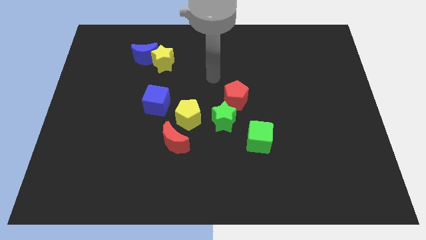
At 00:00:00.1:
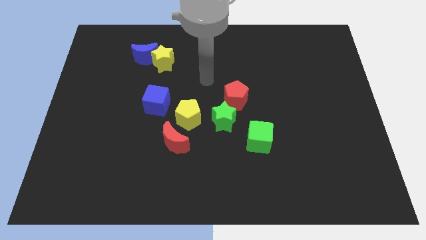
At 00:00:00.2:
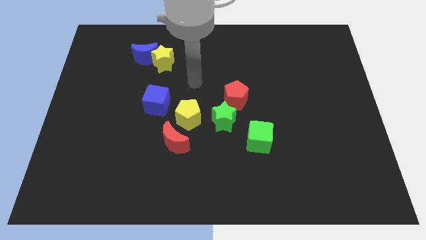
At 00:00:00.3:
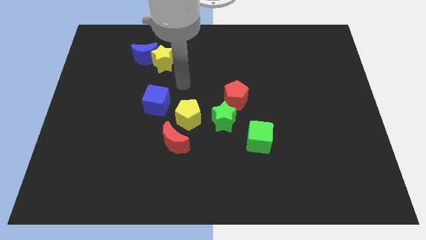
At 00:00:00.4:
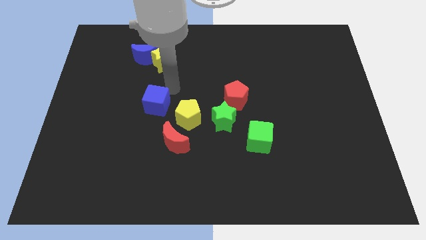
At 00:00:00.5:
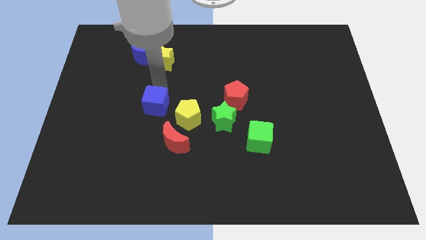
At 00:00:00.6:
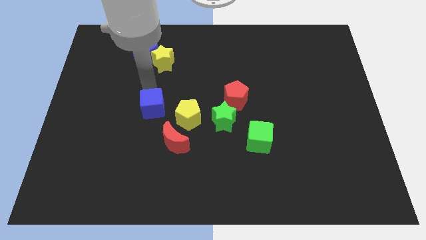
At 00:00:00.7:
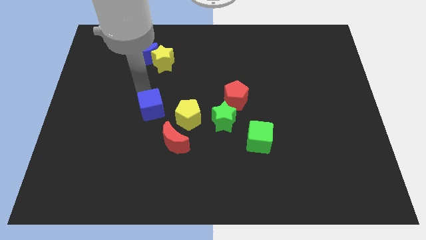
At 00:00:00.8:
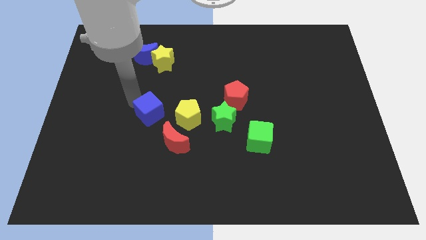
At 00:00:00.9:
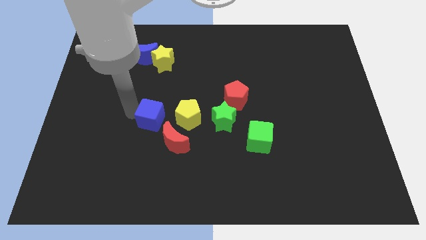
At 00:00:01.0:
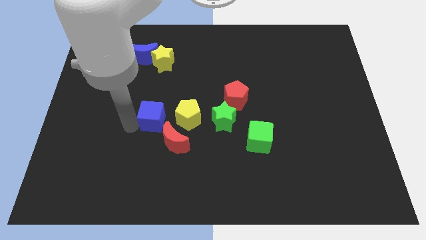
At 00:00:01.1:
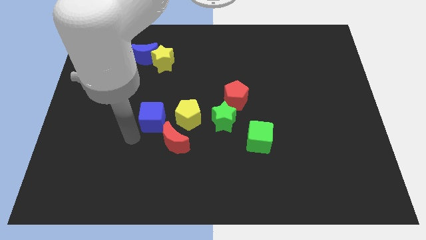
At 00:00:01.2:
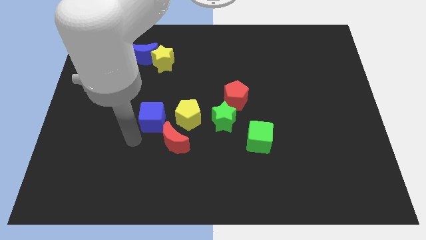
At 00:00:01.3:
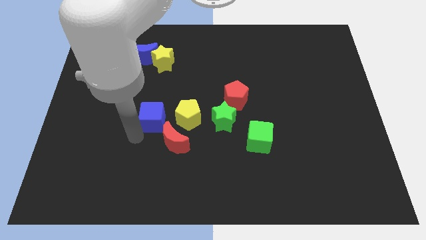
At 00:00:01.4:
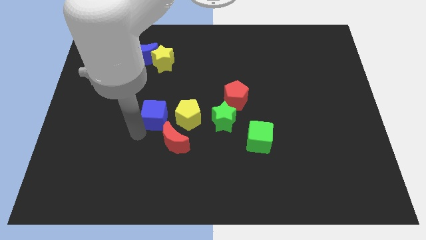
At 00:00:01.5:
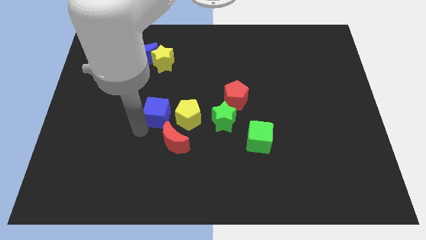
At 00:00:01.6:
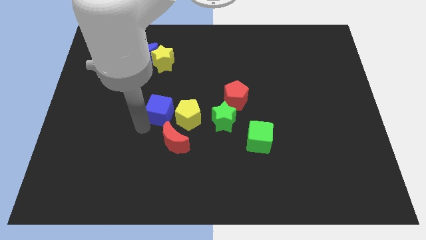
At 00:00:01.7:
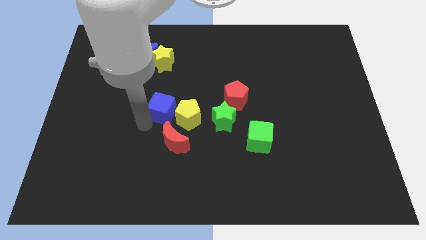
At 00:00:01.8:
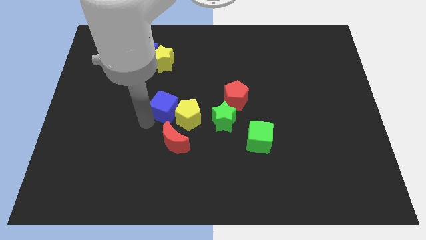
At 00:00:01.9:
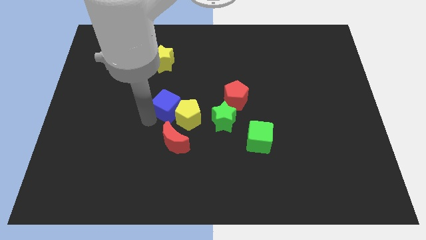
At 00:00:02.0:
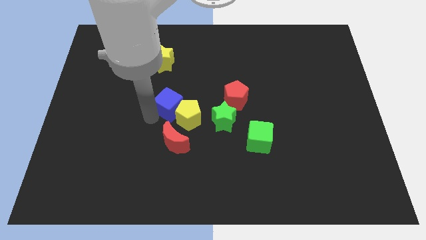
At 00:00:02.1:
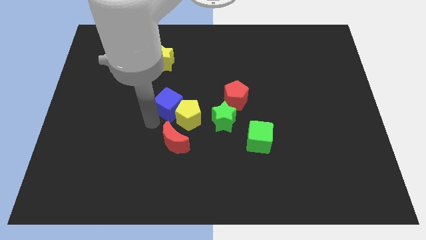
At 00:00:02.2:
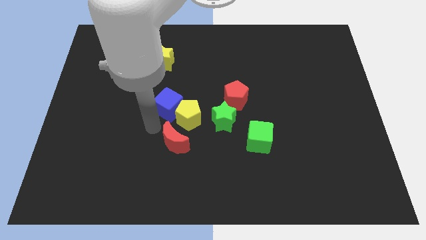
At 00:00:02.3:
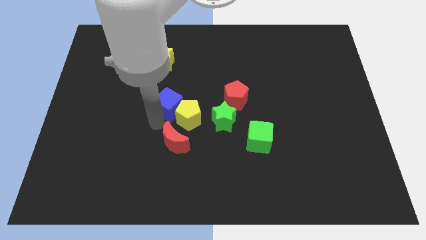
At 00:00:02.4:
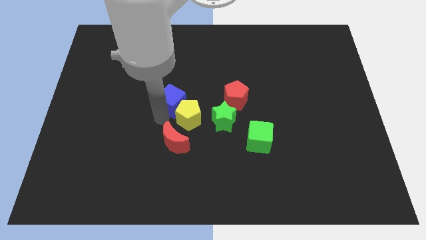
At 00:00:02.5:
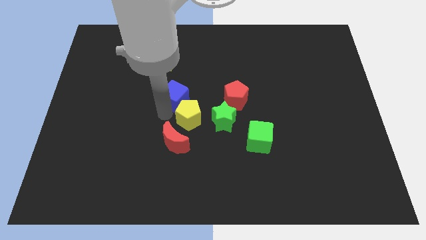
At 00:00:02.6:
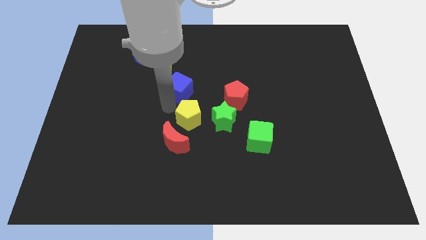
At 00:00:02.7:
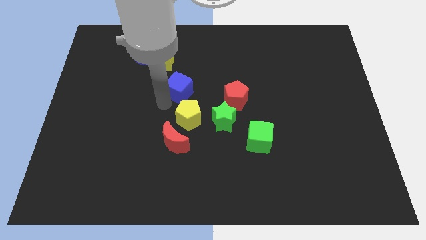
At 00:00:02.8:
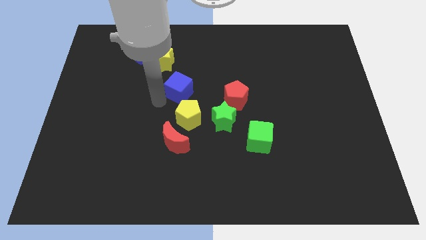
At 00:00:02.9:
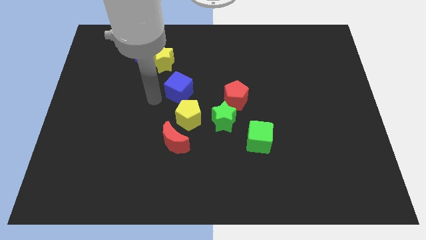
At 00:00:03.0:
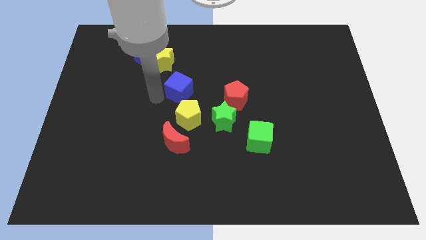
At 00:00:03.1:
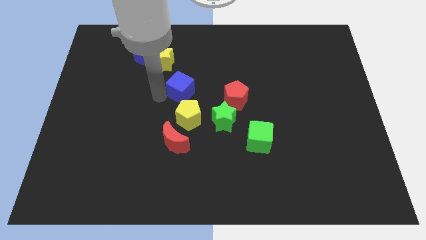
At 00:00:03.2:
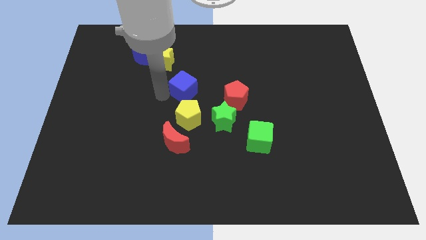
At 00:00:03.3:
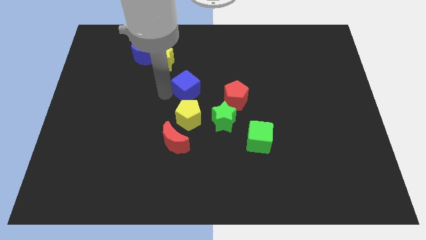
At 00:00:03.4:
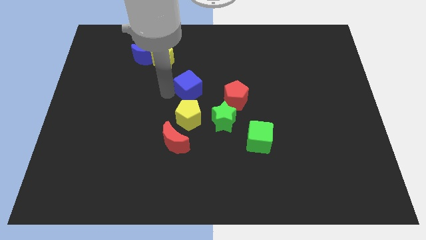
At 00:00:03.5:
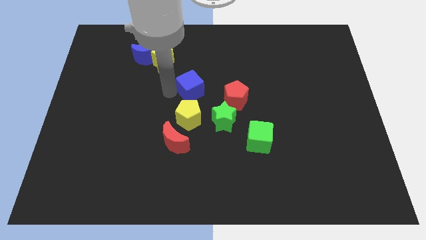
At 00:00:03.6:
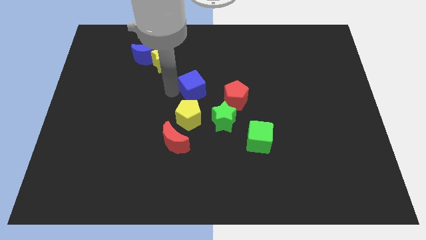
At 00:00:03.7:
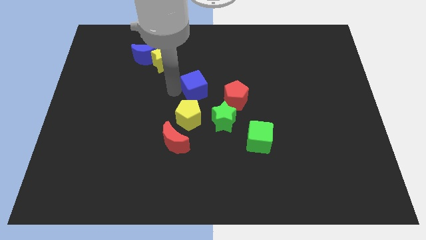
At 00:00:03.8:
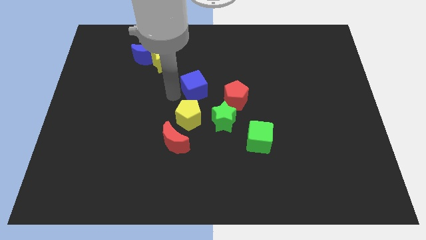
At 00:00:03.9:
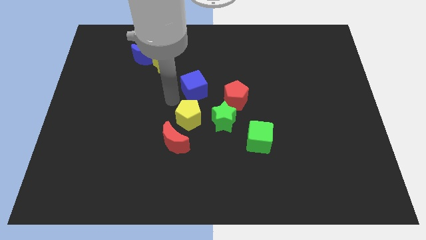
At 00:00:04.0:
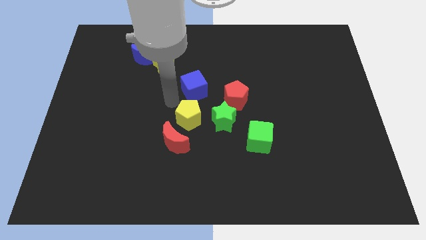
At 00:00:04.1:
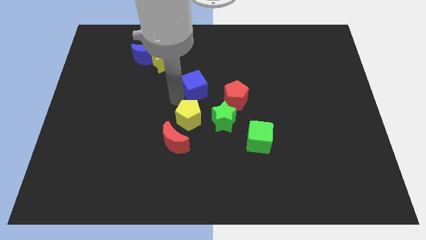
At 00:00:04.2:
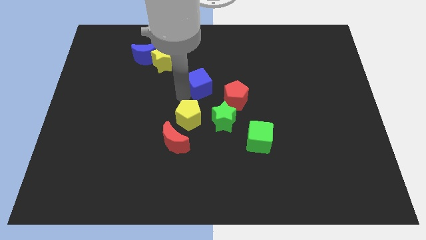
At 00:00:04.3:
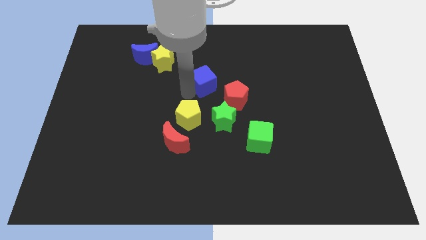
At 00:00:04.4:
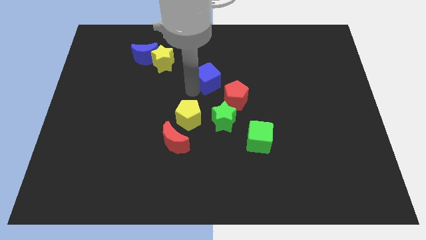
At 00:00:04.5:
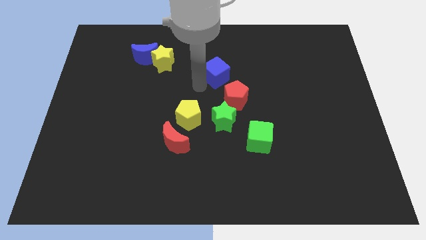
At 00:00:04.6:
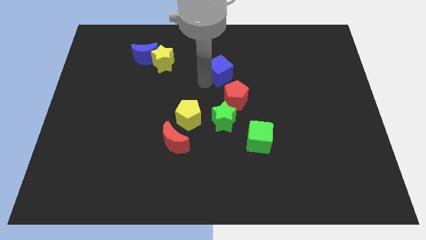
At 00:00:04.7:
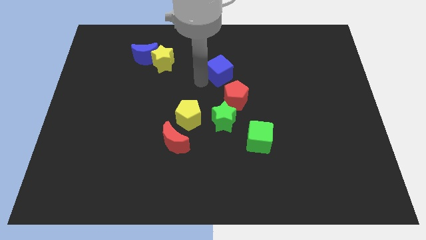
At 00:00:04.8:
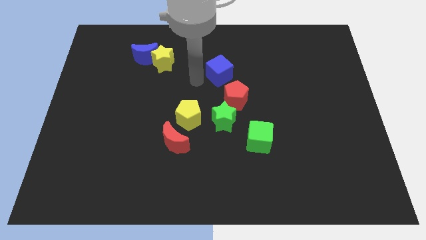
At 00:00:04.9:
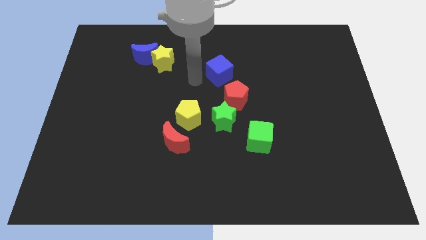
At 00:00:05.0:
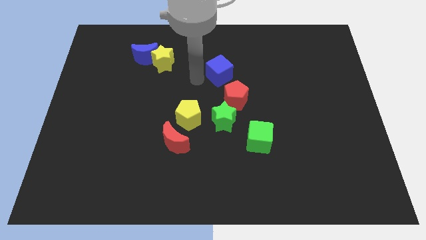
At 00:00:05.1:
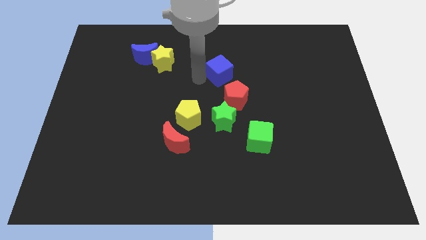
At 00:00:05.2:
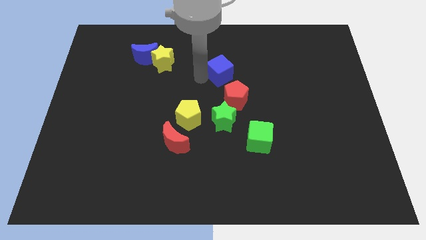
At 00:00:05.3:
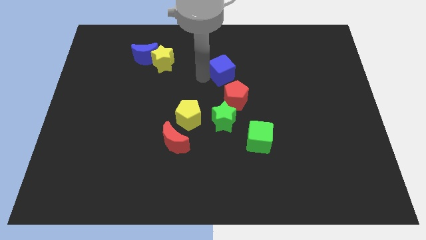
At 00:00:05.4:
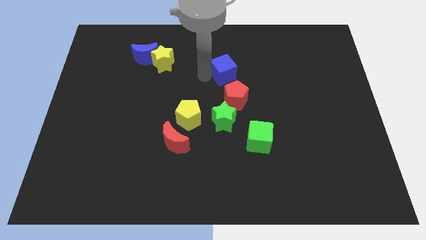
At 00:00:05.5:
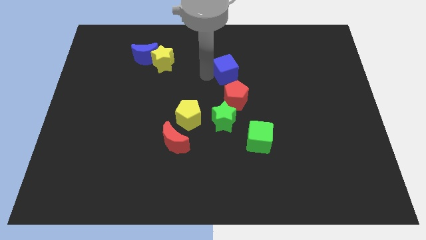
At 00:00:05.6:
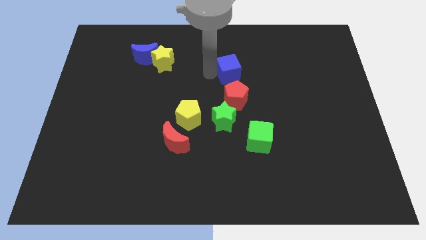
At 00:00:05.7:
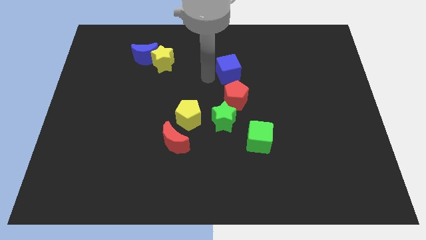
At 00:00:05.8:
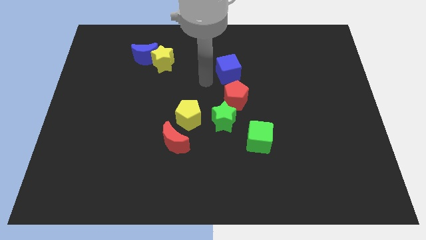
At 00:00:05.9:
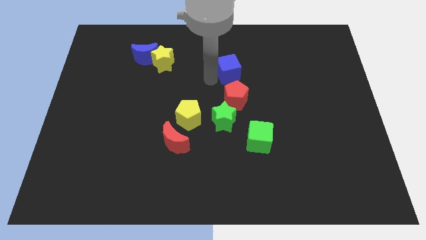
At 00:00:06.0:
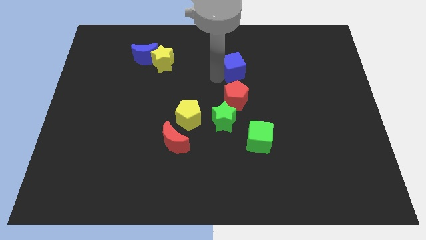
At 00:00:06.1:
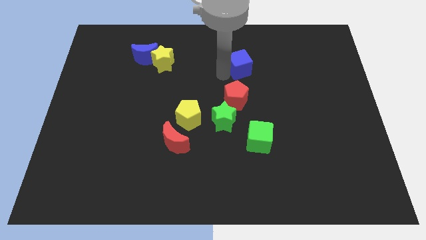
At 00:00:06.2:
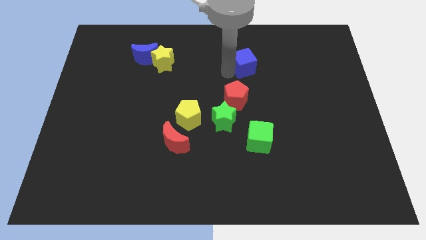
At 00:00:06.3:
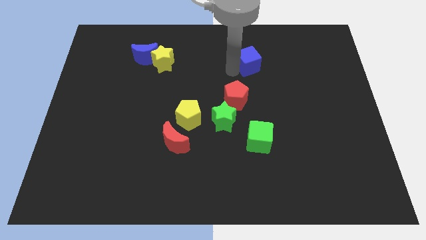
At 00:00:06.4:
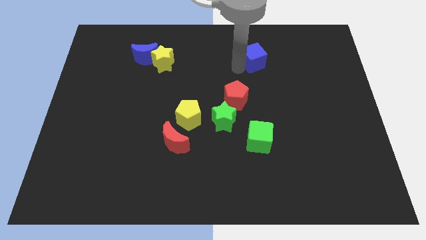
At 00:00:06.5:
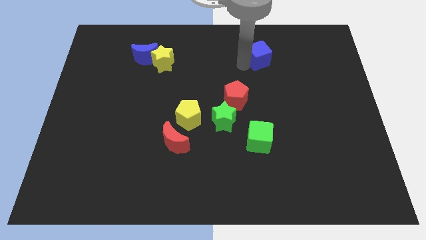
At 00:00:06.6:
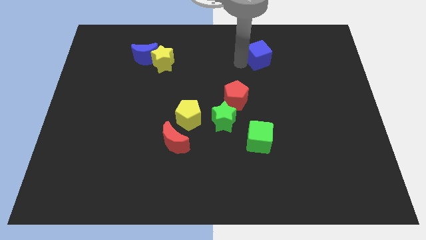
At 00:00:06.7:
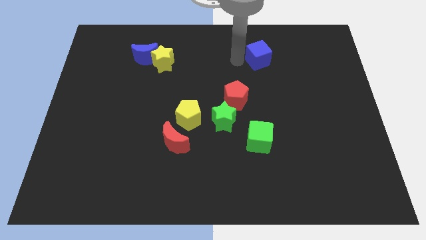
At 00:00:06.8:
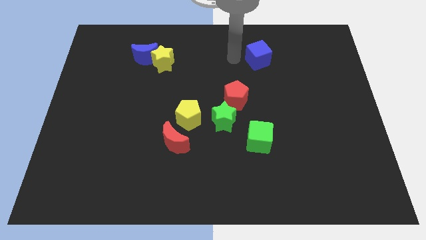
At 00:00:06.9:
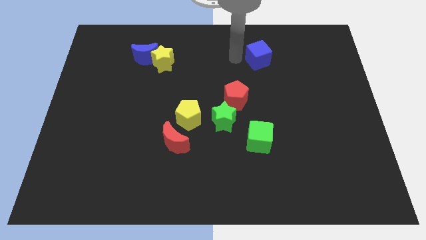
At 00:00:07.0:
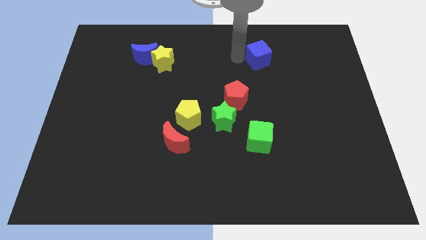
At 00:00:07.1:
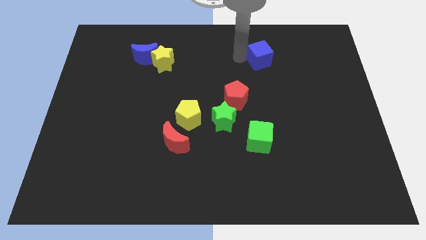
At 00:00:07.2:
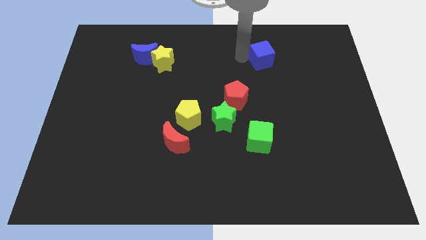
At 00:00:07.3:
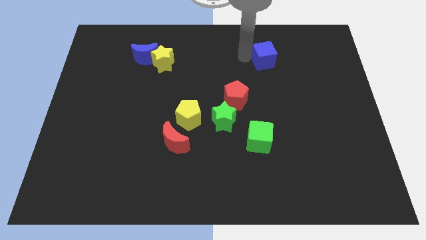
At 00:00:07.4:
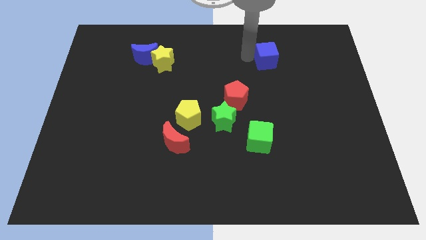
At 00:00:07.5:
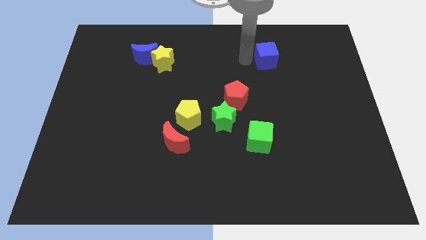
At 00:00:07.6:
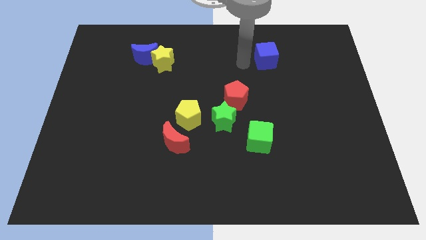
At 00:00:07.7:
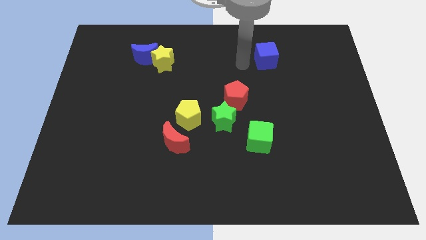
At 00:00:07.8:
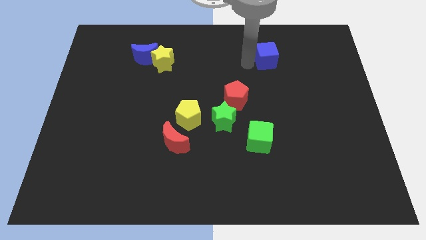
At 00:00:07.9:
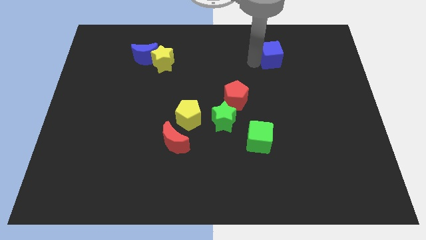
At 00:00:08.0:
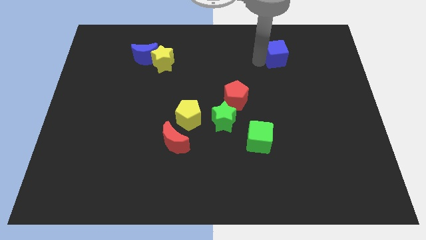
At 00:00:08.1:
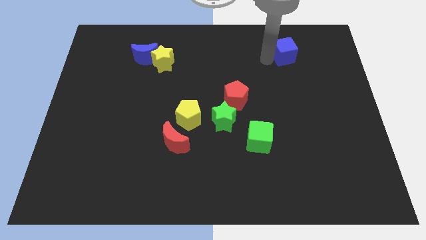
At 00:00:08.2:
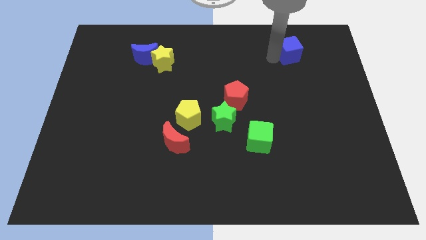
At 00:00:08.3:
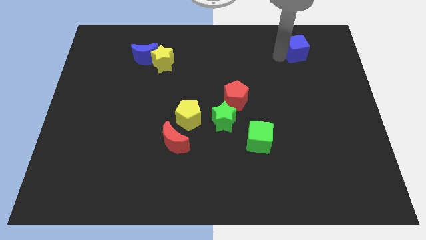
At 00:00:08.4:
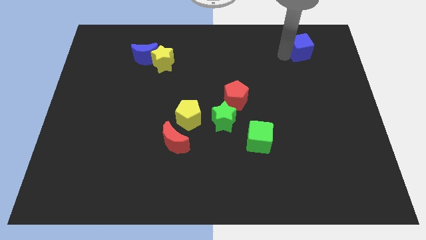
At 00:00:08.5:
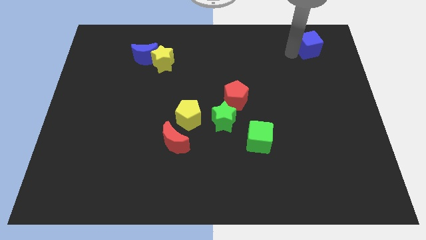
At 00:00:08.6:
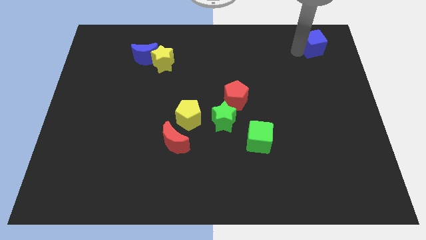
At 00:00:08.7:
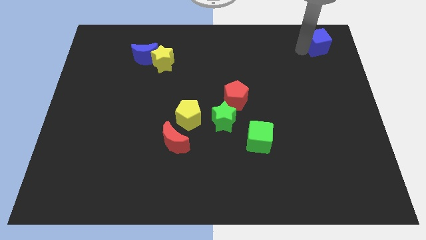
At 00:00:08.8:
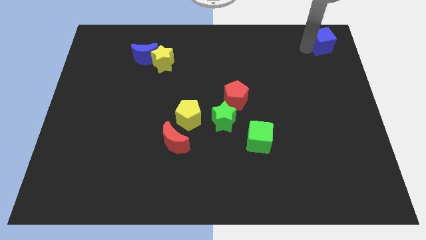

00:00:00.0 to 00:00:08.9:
move the blue cube to the top right corner
